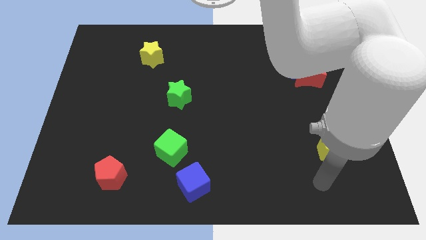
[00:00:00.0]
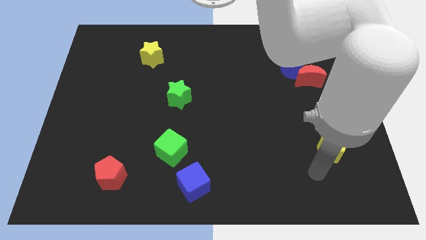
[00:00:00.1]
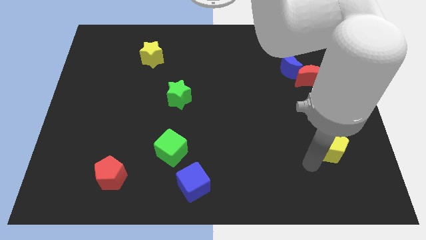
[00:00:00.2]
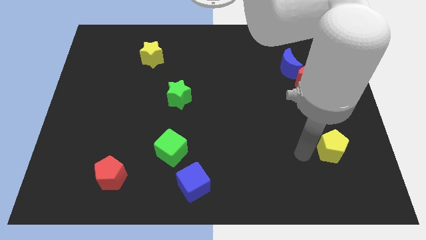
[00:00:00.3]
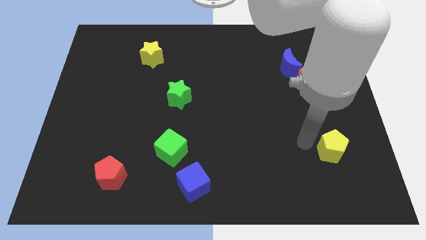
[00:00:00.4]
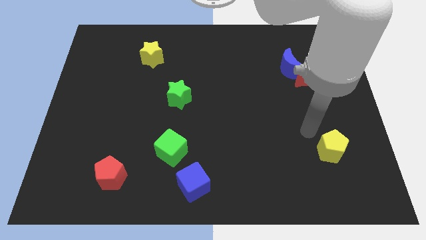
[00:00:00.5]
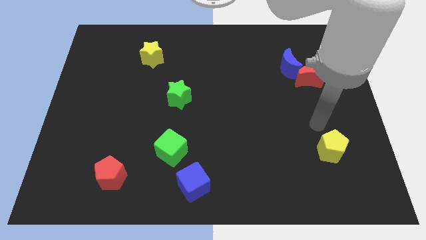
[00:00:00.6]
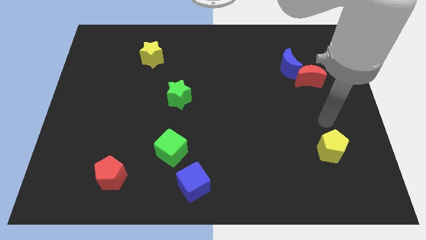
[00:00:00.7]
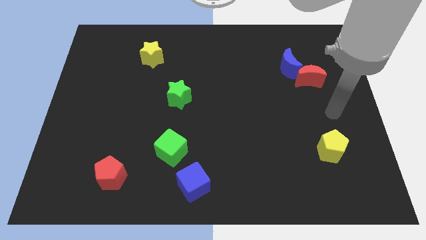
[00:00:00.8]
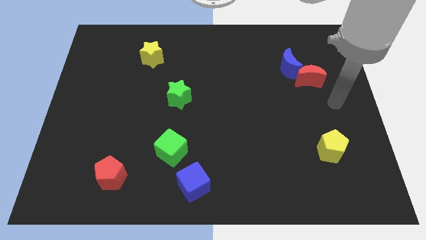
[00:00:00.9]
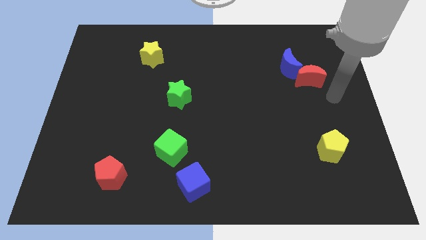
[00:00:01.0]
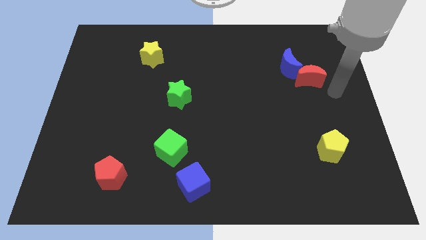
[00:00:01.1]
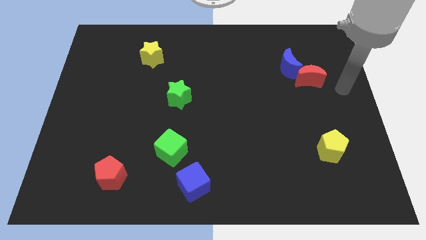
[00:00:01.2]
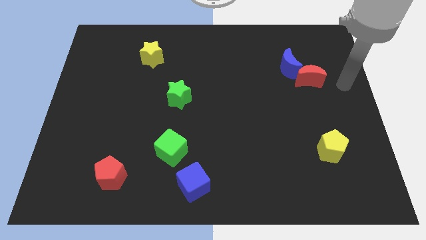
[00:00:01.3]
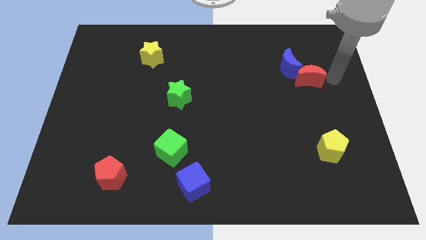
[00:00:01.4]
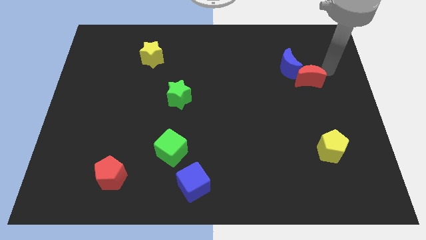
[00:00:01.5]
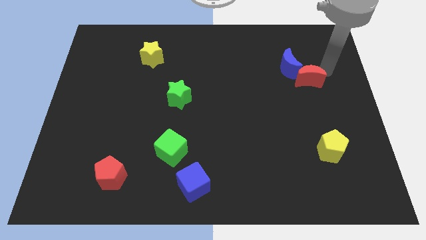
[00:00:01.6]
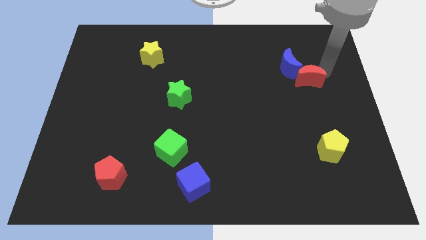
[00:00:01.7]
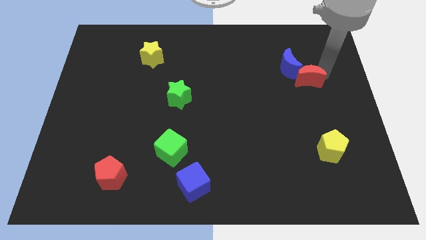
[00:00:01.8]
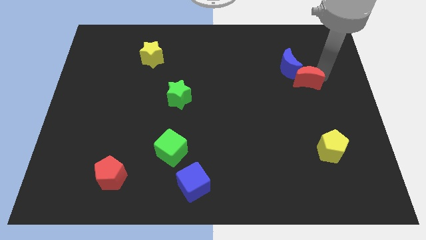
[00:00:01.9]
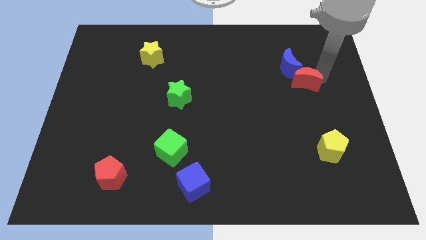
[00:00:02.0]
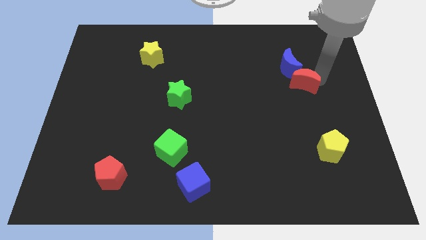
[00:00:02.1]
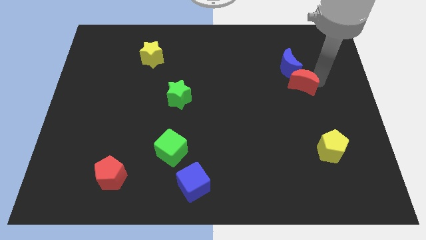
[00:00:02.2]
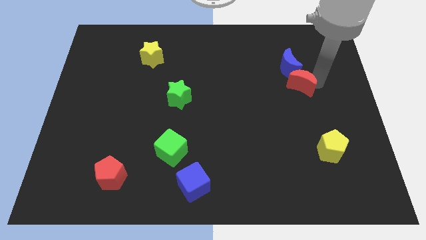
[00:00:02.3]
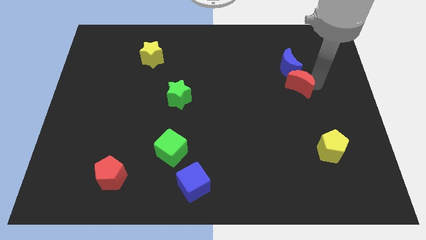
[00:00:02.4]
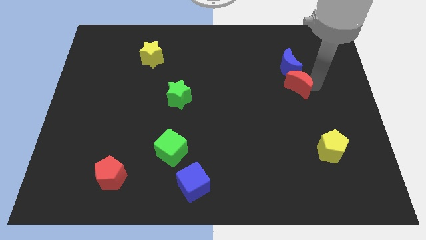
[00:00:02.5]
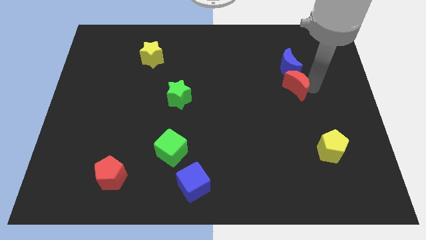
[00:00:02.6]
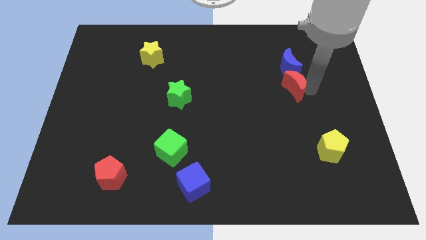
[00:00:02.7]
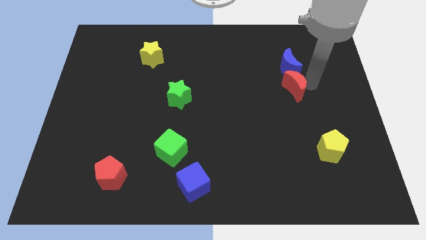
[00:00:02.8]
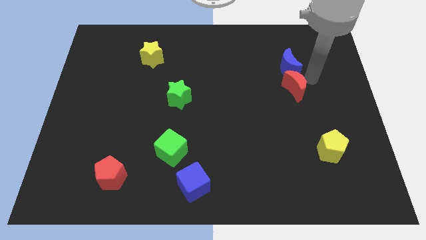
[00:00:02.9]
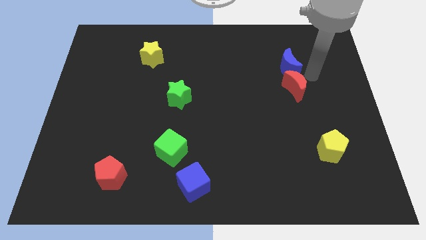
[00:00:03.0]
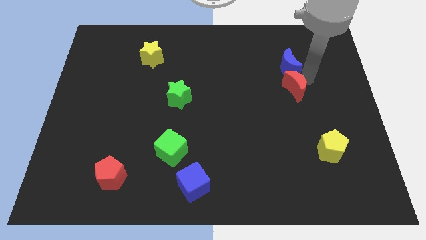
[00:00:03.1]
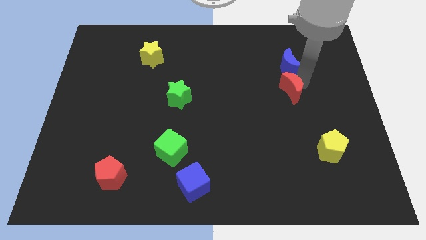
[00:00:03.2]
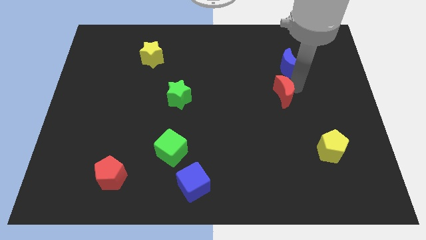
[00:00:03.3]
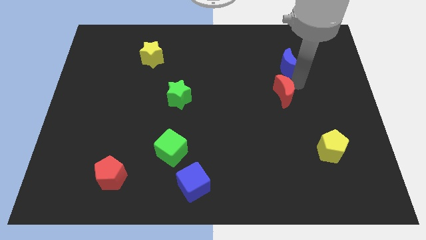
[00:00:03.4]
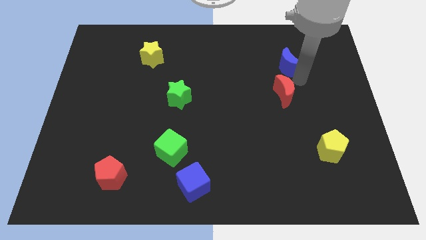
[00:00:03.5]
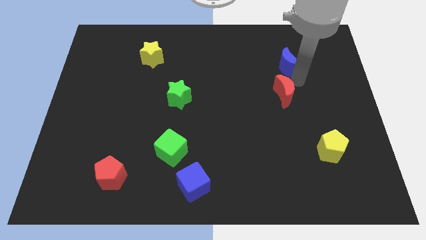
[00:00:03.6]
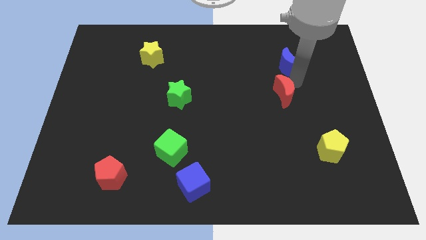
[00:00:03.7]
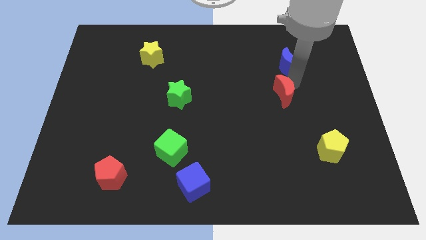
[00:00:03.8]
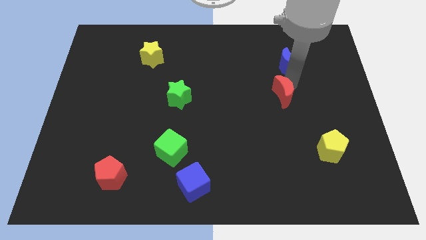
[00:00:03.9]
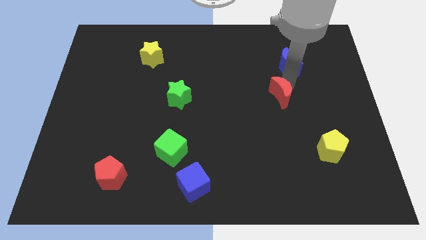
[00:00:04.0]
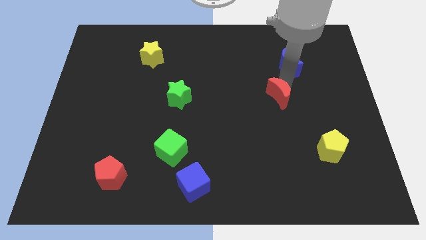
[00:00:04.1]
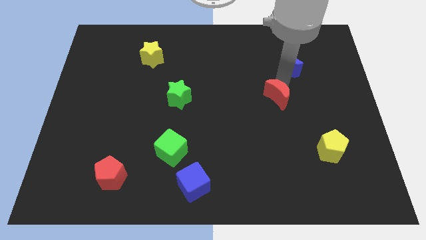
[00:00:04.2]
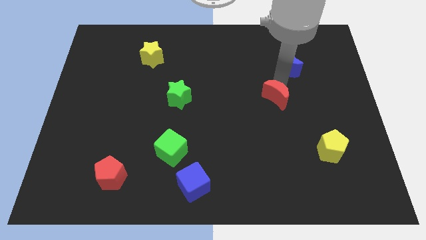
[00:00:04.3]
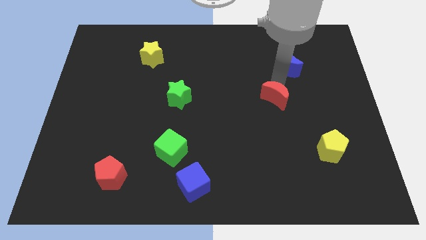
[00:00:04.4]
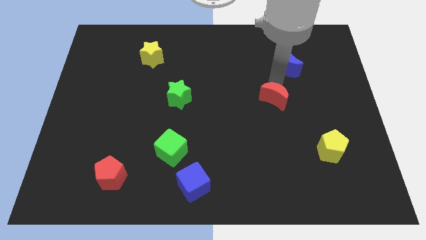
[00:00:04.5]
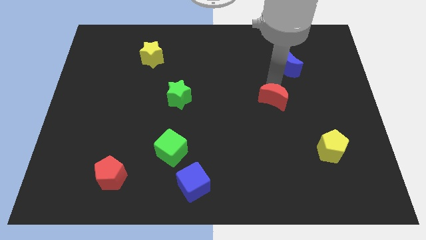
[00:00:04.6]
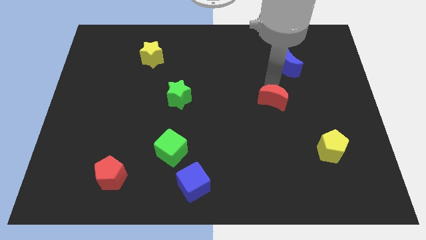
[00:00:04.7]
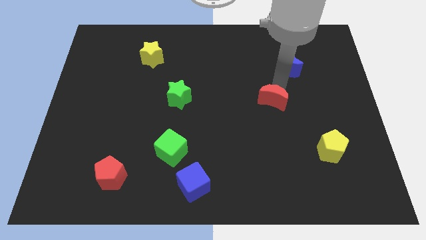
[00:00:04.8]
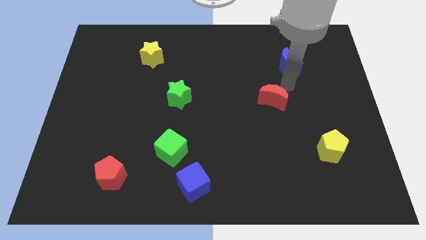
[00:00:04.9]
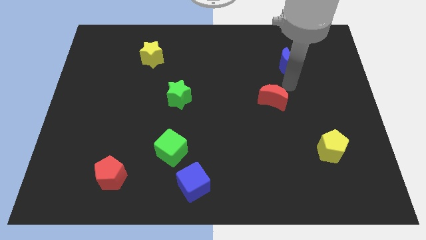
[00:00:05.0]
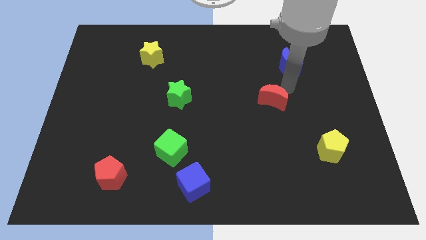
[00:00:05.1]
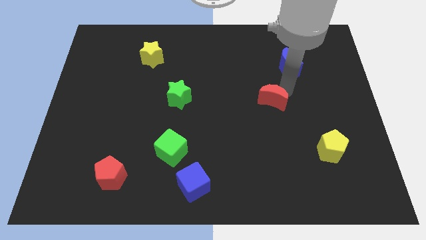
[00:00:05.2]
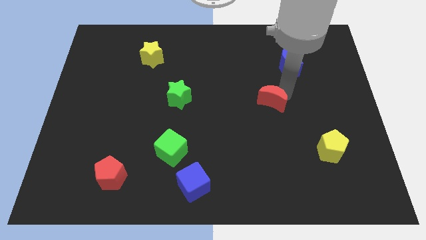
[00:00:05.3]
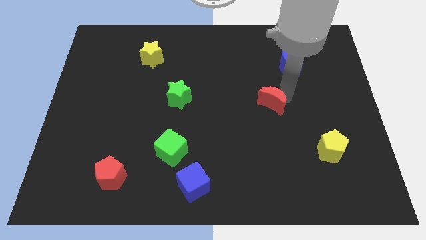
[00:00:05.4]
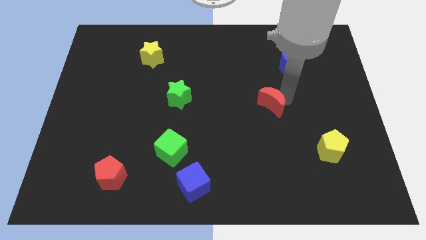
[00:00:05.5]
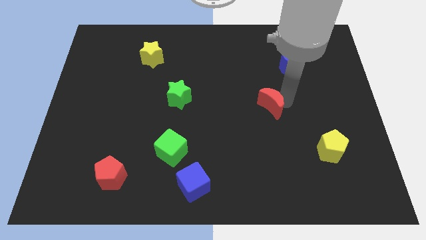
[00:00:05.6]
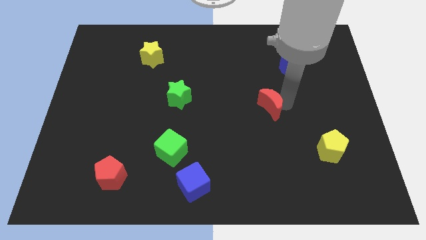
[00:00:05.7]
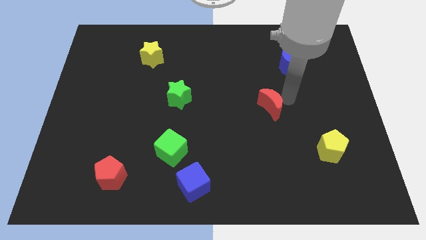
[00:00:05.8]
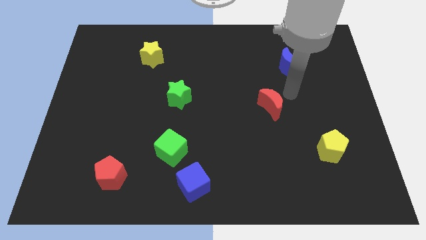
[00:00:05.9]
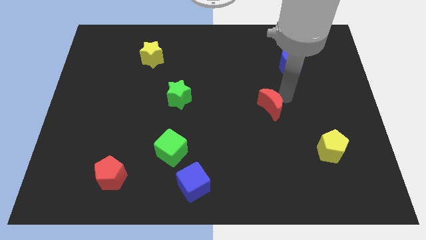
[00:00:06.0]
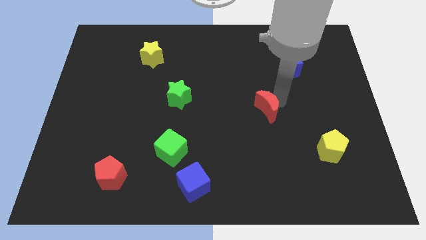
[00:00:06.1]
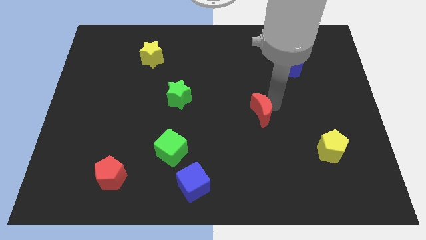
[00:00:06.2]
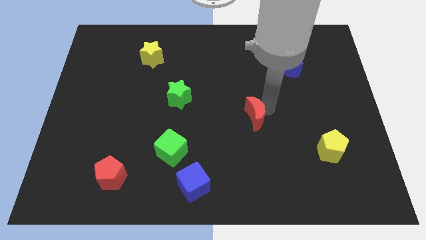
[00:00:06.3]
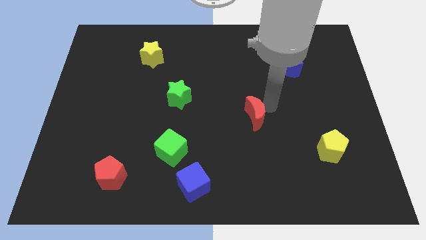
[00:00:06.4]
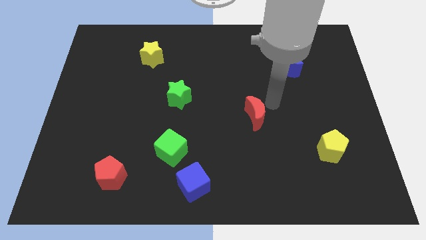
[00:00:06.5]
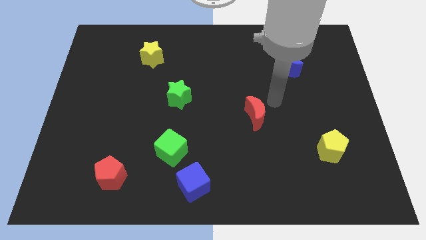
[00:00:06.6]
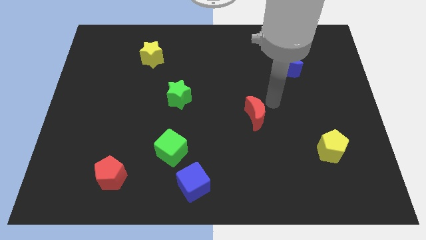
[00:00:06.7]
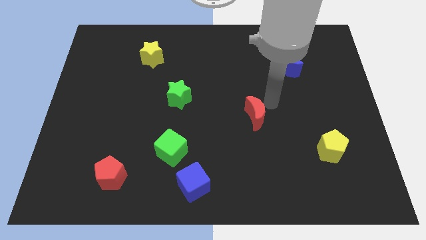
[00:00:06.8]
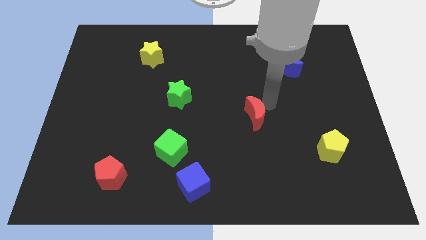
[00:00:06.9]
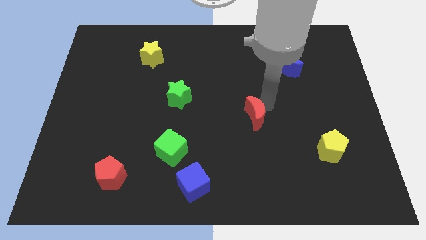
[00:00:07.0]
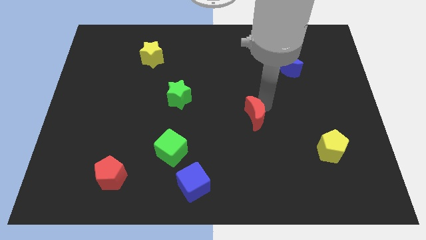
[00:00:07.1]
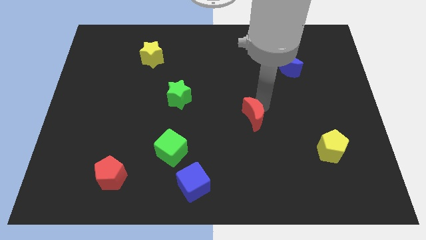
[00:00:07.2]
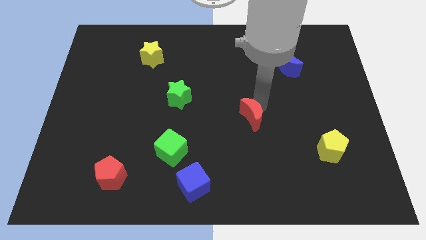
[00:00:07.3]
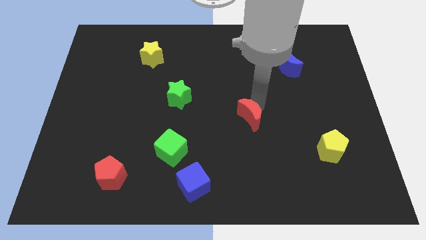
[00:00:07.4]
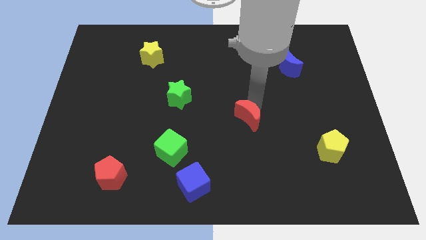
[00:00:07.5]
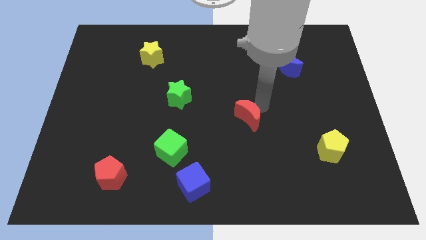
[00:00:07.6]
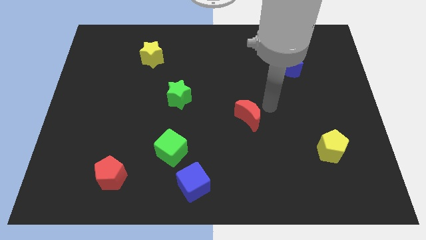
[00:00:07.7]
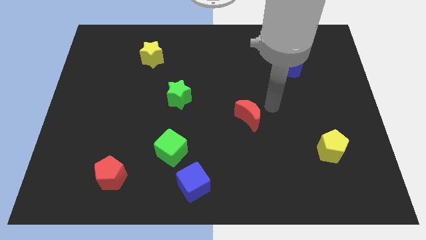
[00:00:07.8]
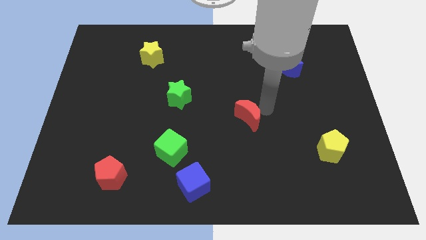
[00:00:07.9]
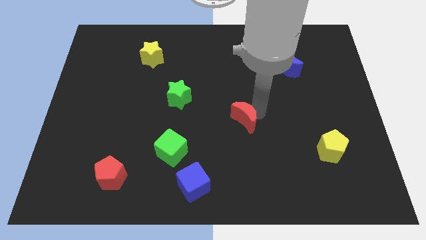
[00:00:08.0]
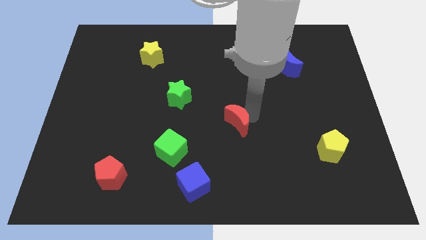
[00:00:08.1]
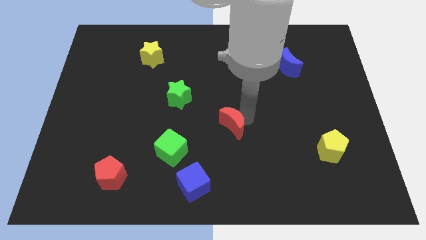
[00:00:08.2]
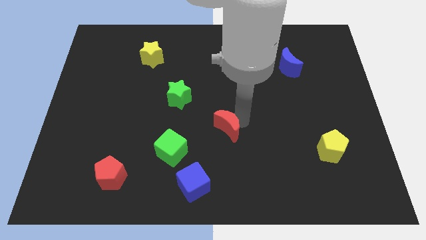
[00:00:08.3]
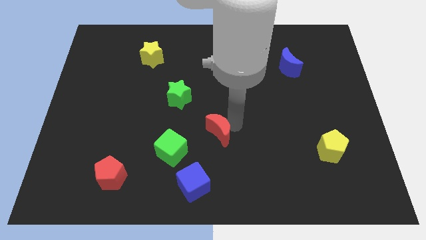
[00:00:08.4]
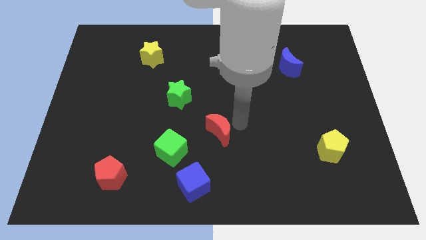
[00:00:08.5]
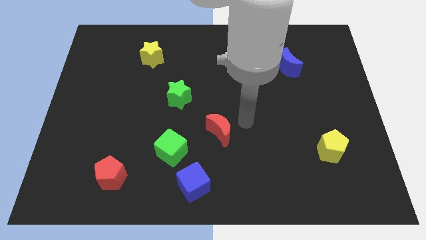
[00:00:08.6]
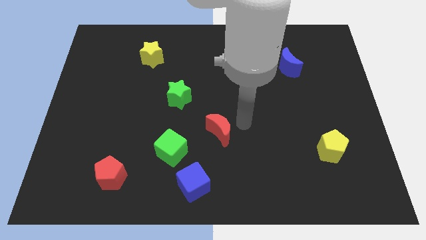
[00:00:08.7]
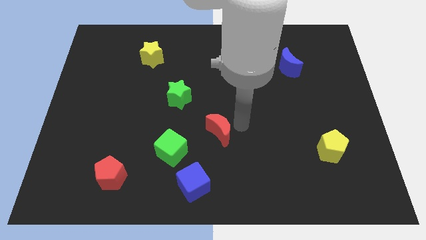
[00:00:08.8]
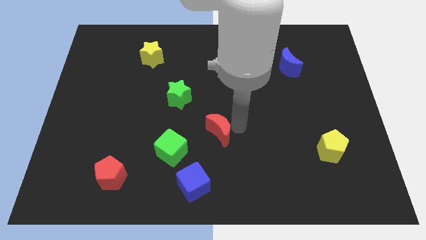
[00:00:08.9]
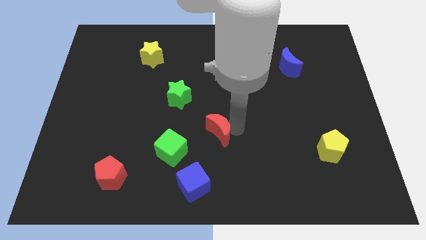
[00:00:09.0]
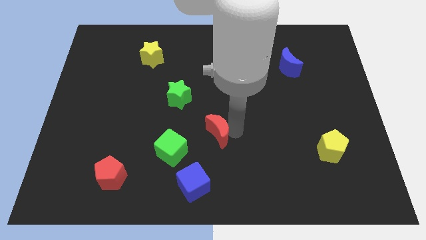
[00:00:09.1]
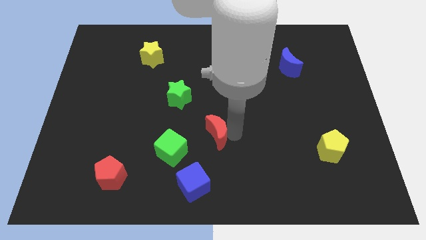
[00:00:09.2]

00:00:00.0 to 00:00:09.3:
put the red moon to the top of the blue cube
